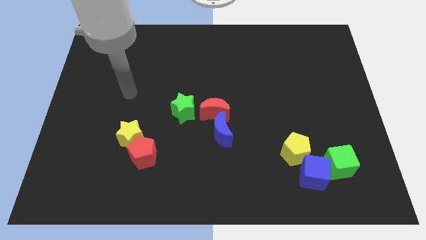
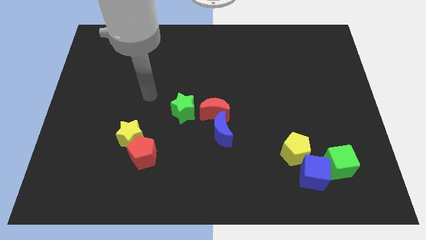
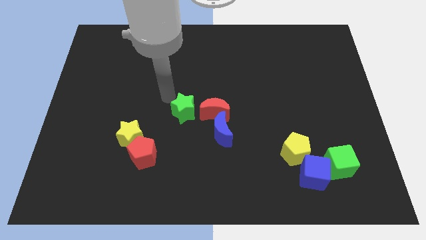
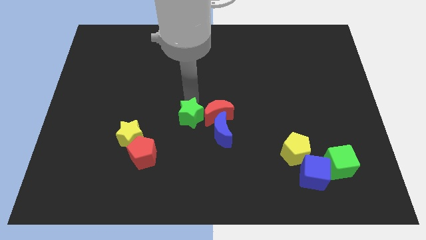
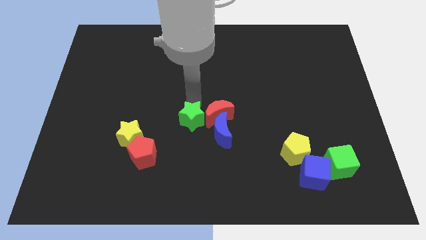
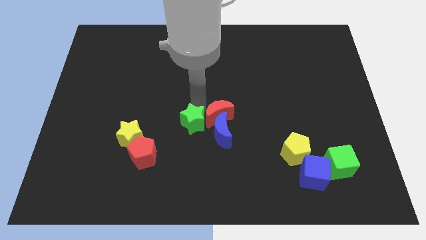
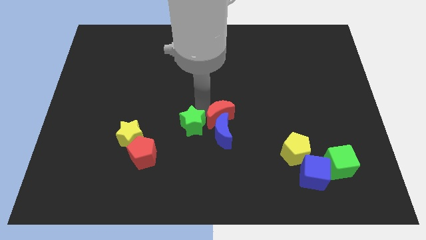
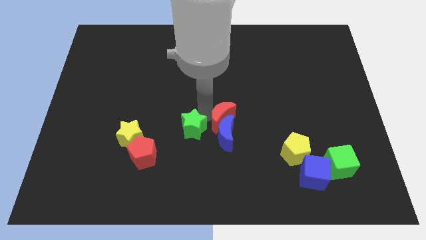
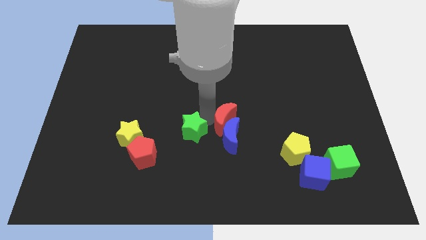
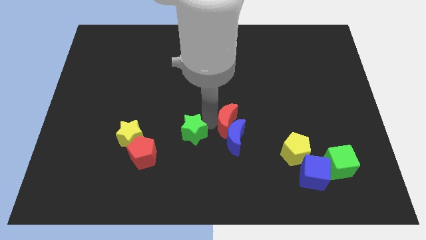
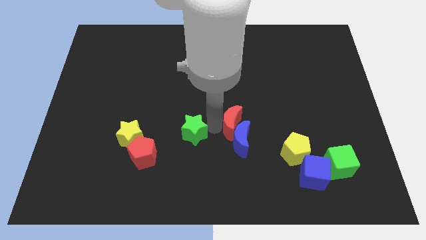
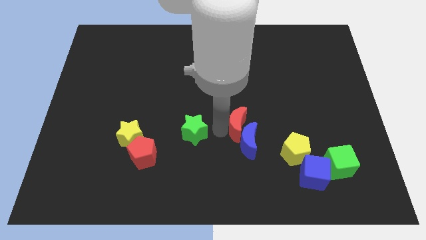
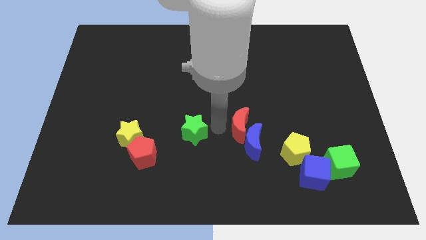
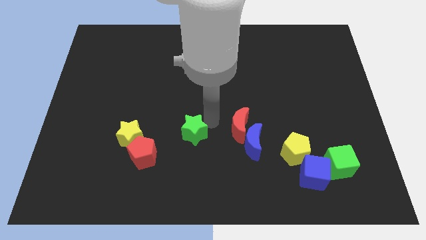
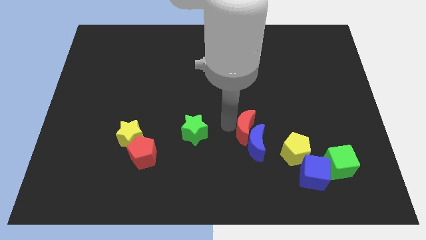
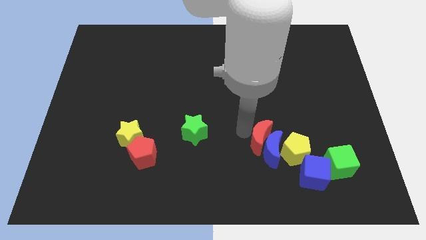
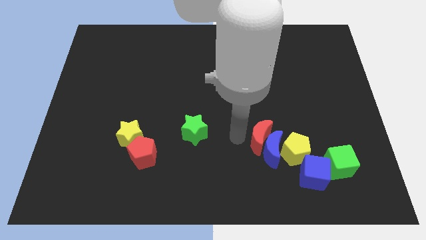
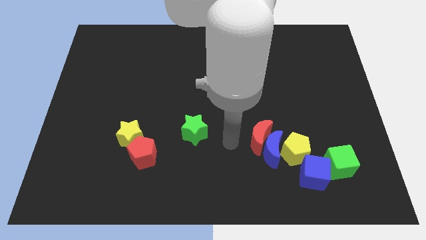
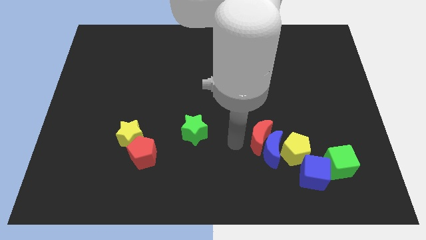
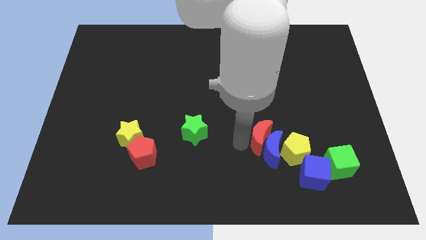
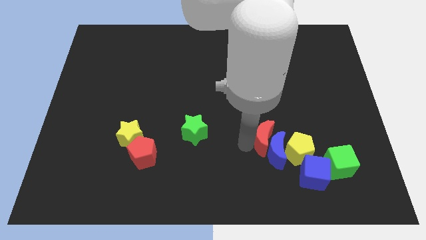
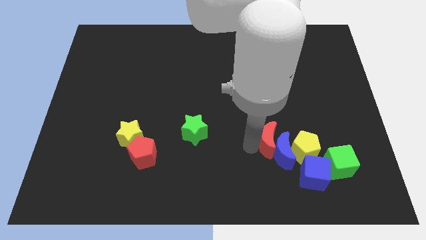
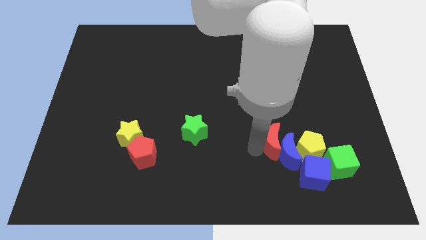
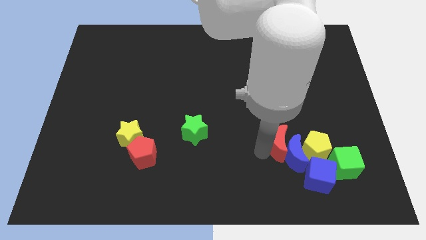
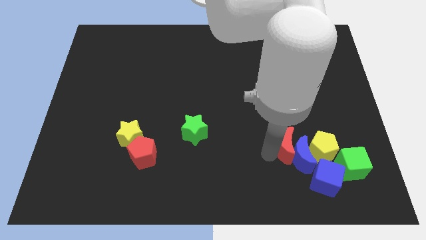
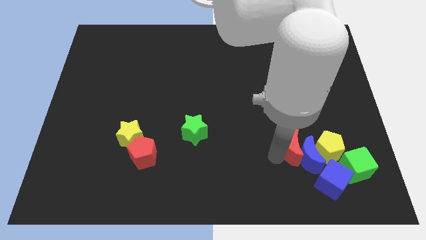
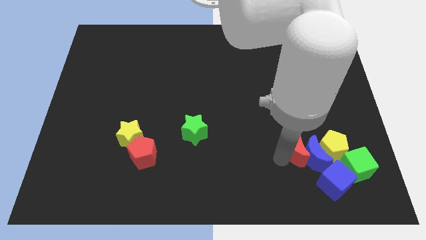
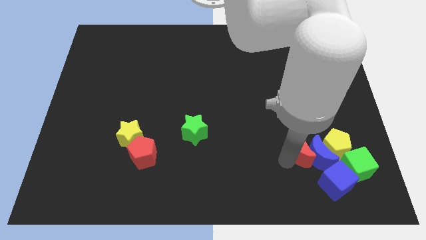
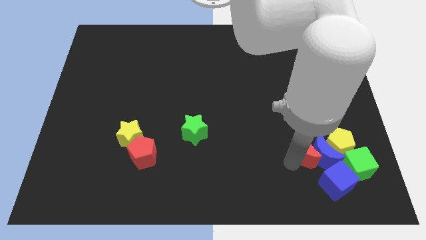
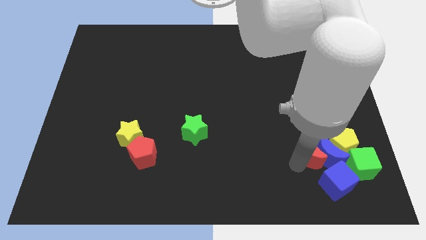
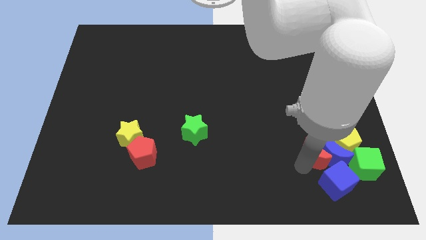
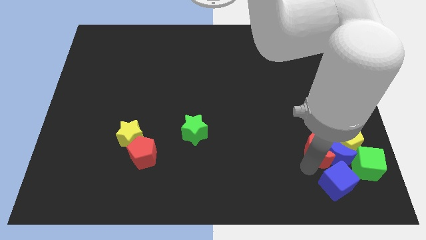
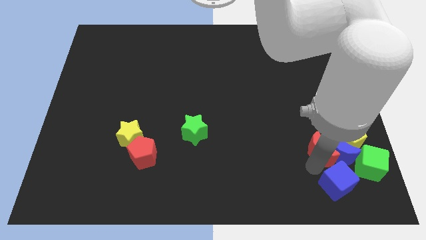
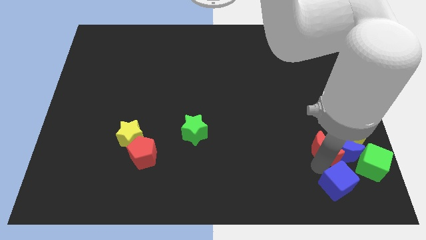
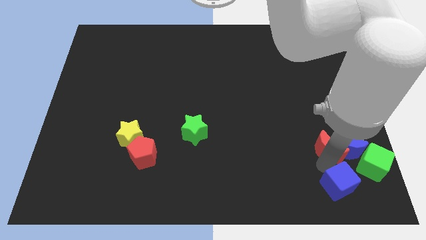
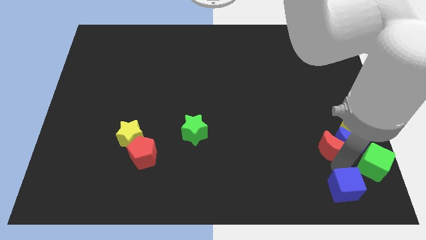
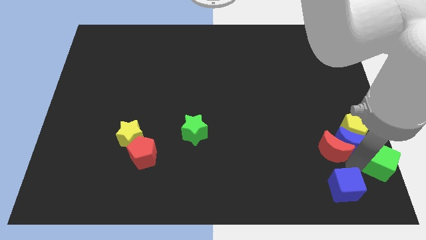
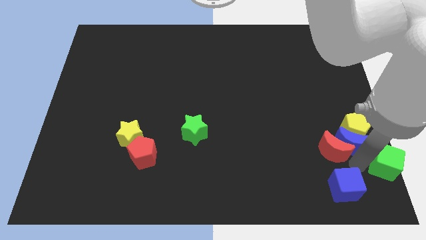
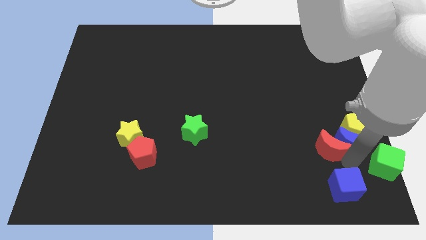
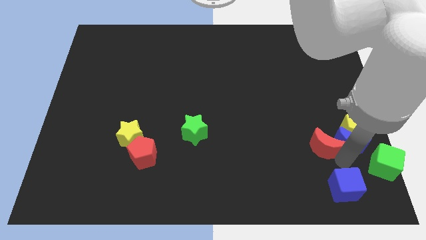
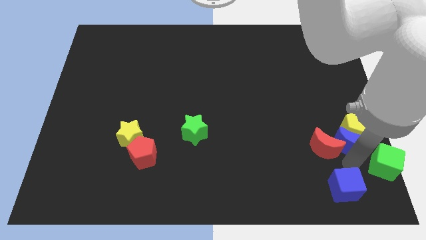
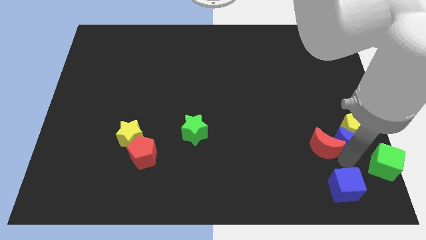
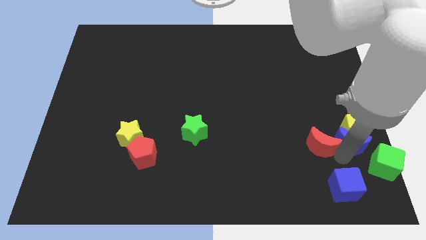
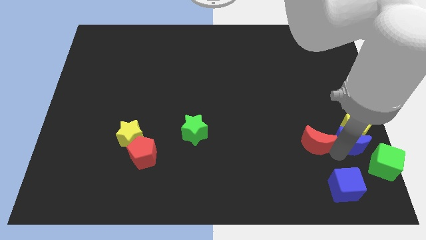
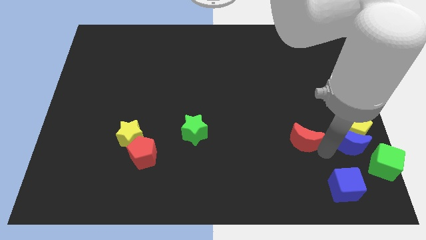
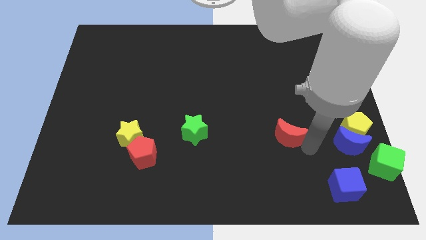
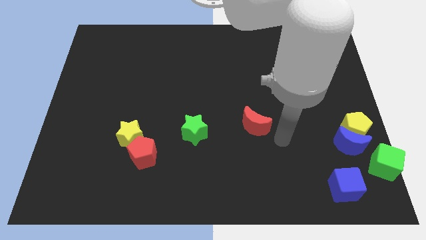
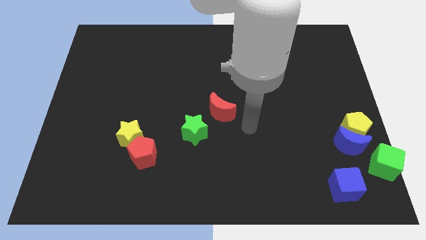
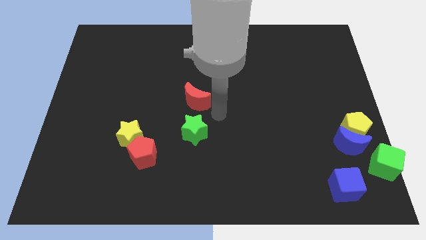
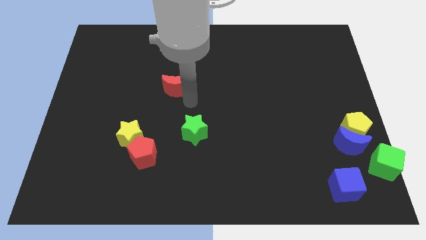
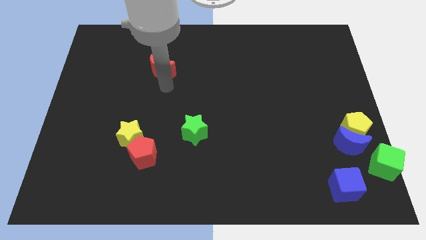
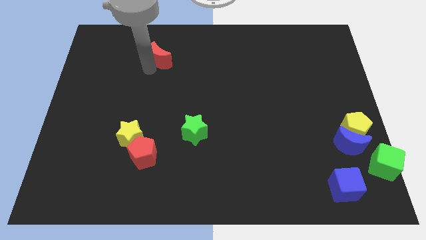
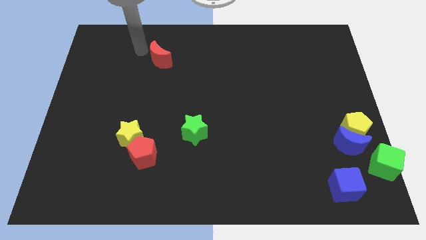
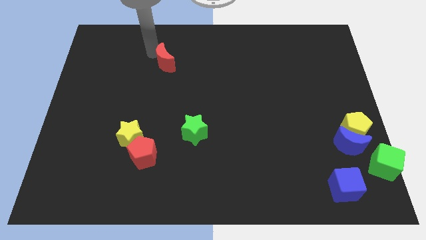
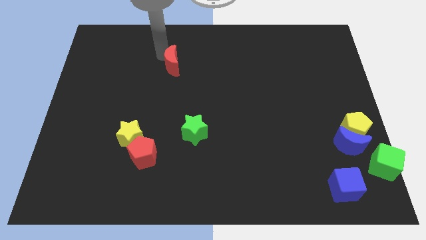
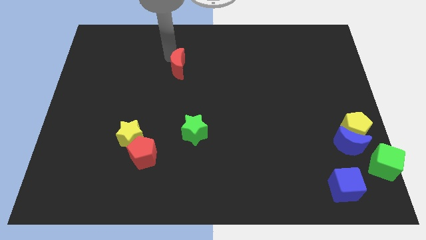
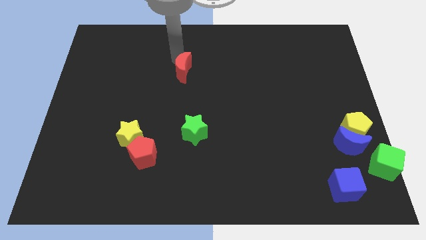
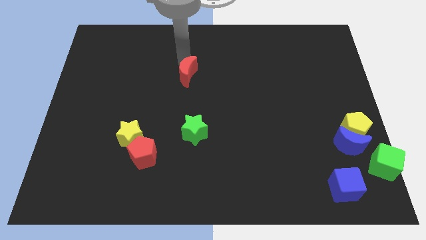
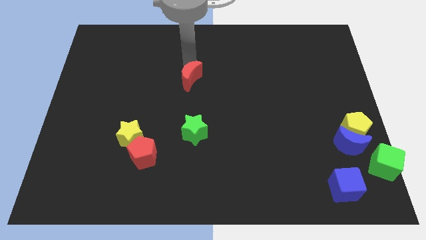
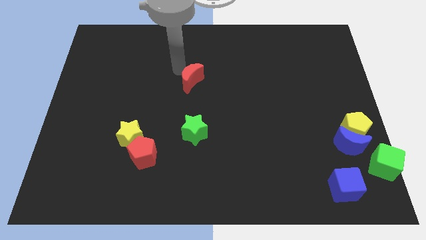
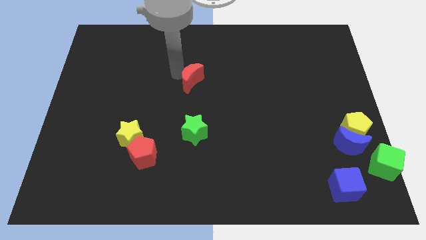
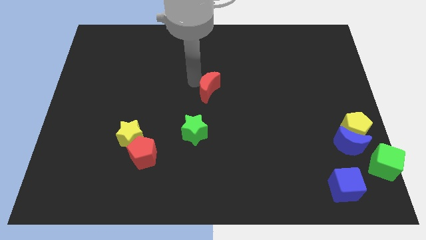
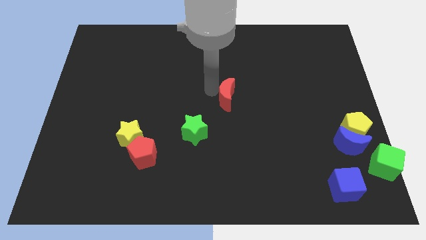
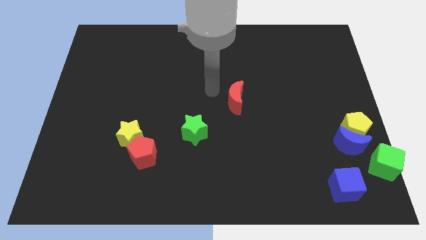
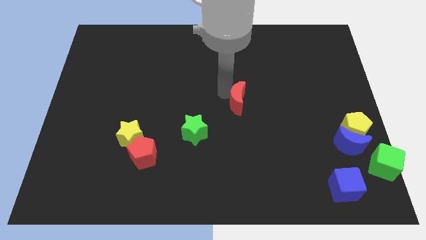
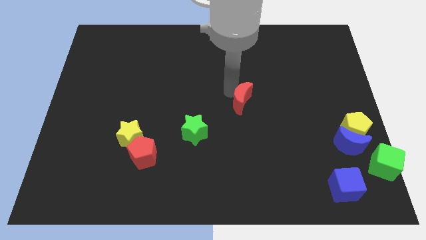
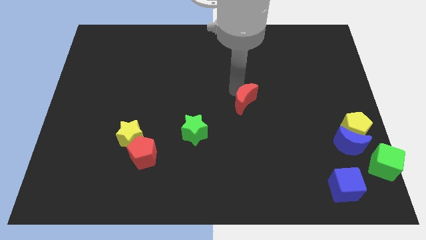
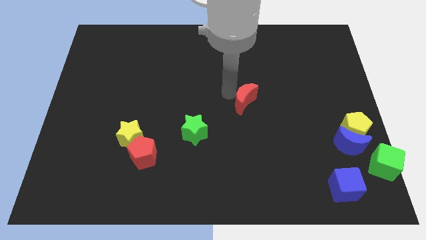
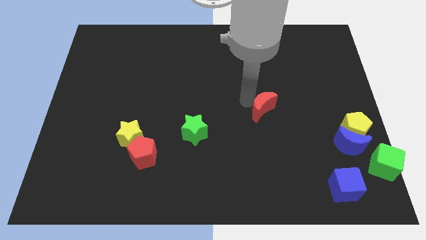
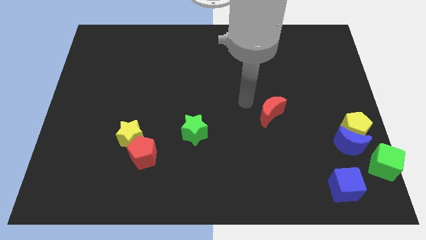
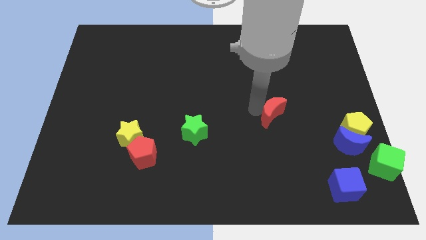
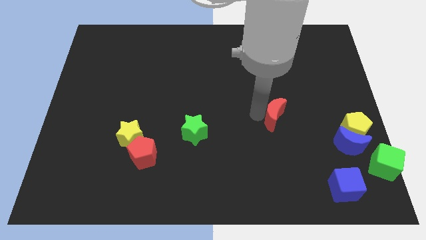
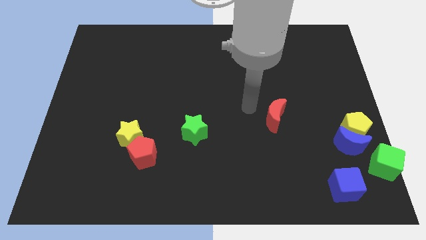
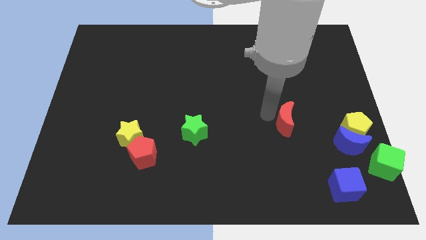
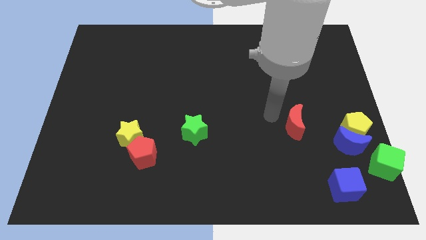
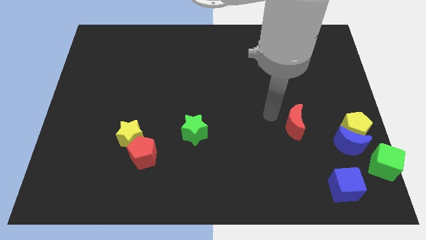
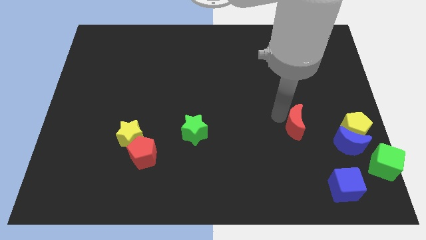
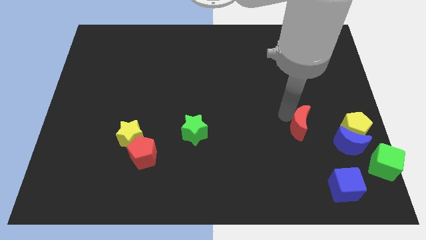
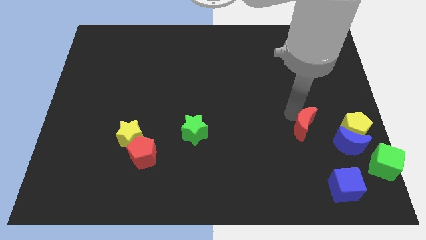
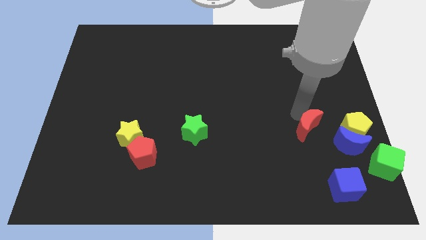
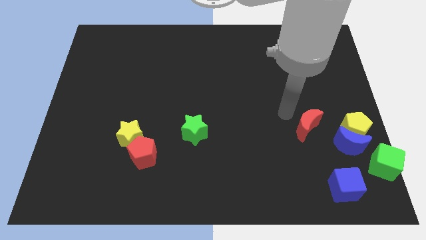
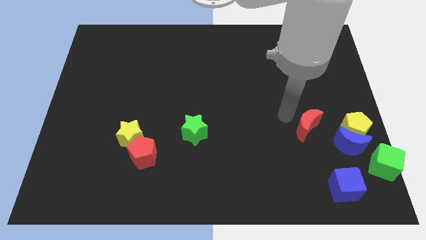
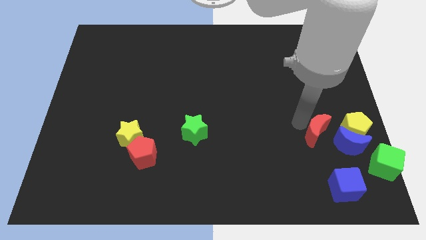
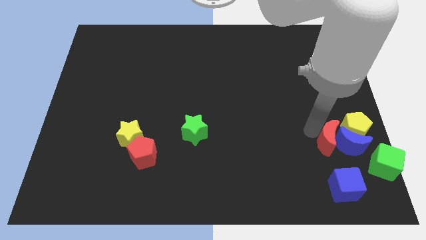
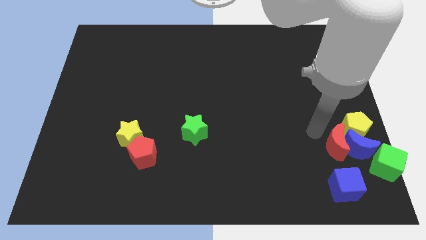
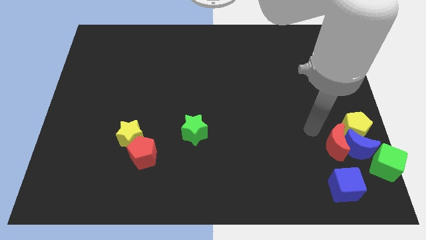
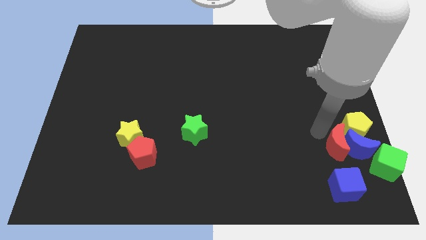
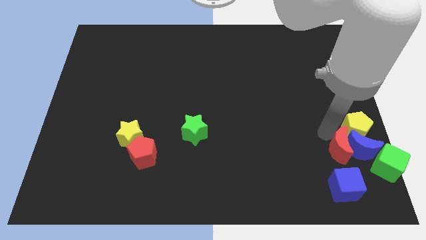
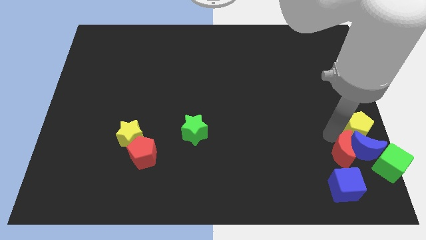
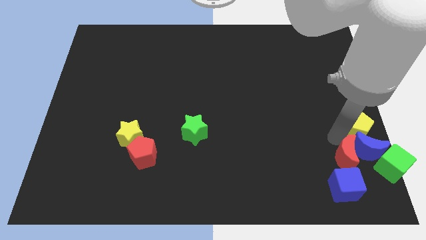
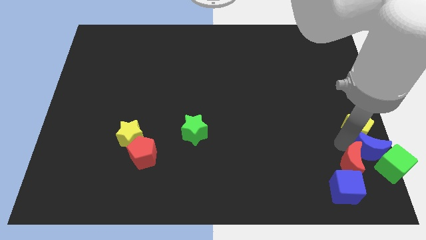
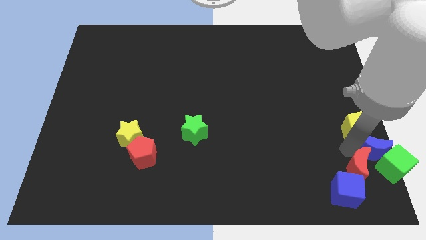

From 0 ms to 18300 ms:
push the red moon to the bottom right
